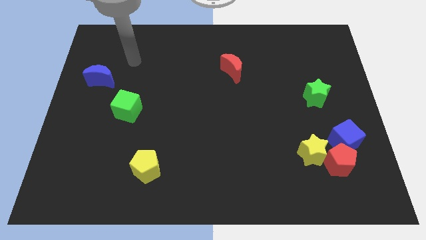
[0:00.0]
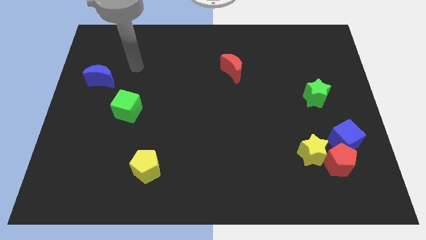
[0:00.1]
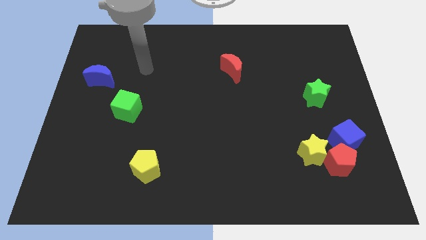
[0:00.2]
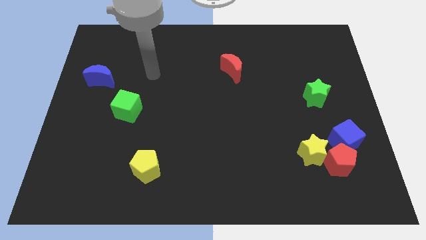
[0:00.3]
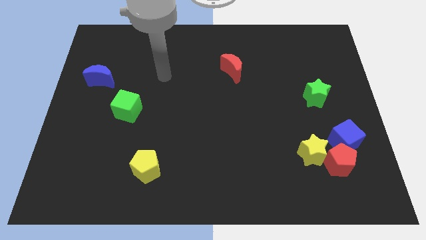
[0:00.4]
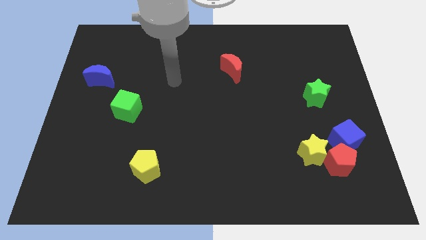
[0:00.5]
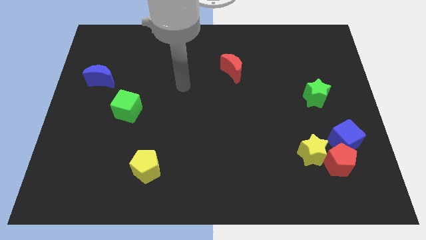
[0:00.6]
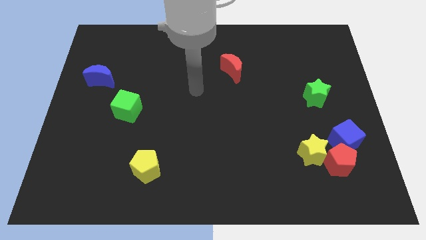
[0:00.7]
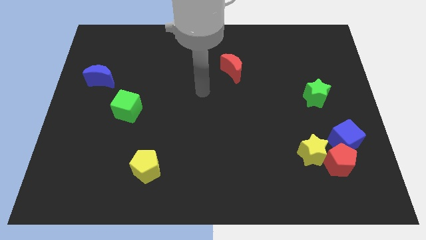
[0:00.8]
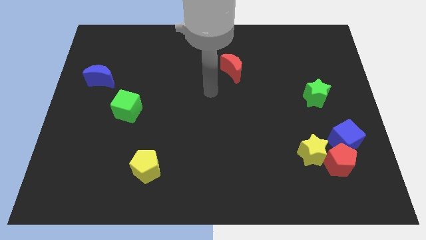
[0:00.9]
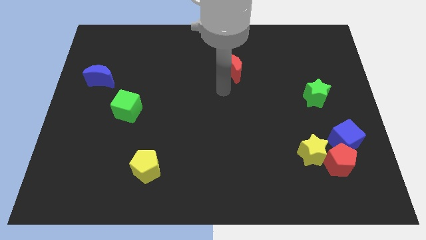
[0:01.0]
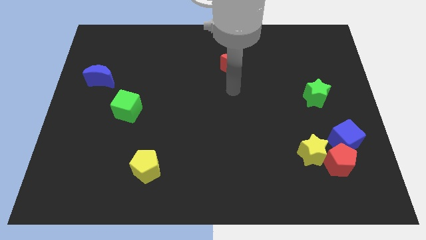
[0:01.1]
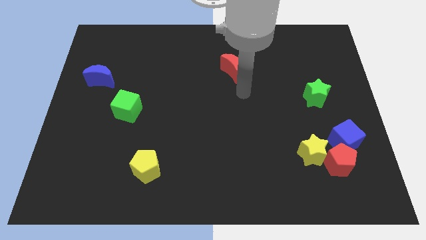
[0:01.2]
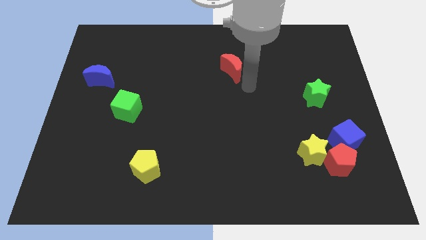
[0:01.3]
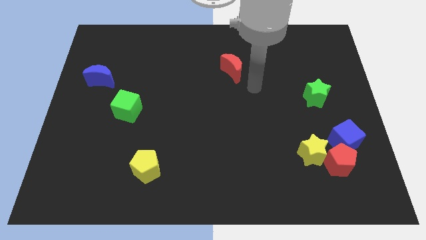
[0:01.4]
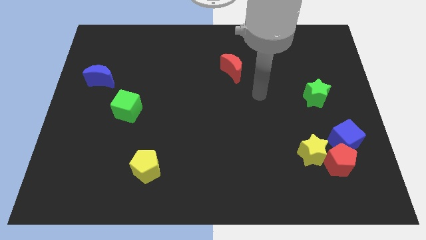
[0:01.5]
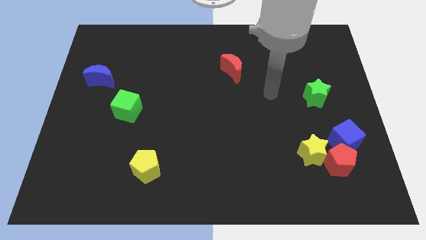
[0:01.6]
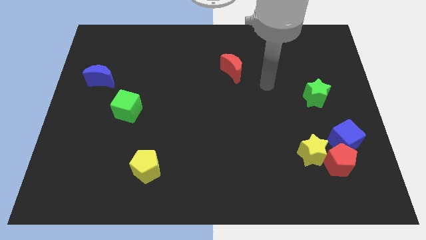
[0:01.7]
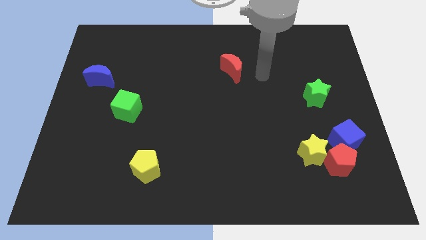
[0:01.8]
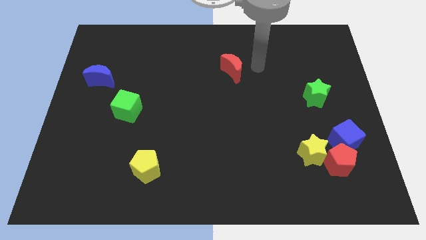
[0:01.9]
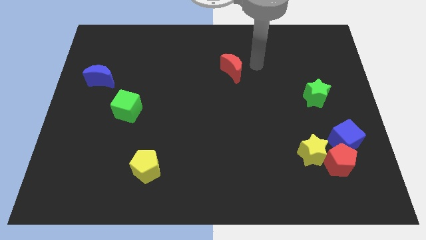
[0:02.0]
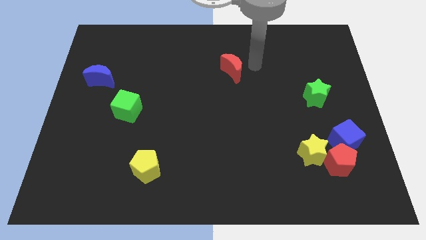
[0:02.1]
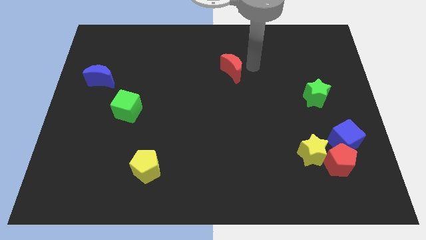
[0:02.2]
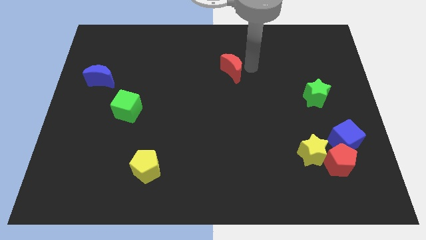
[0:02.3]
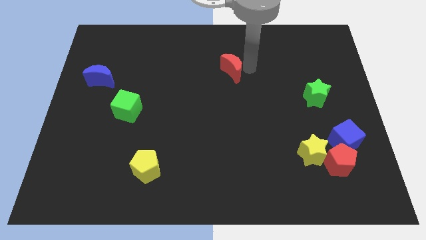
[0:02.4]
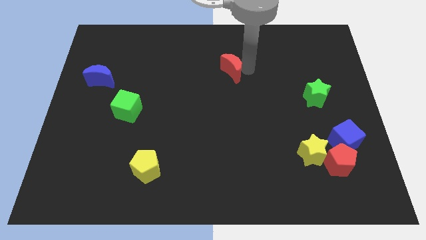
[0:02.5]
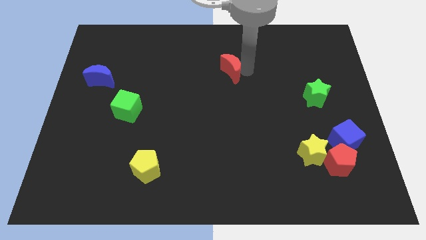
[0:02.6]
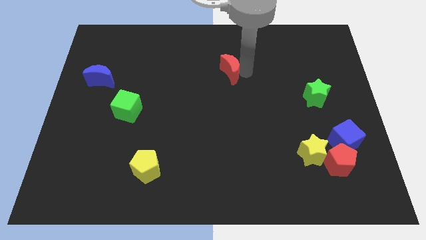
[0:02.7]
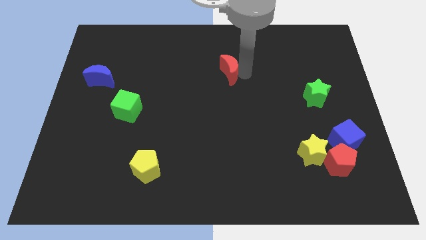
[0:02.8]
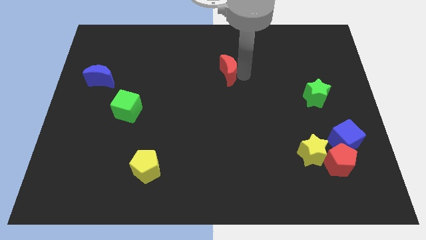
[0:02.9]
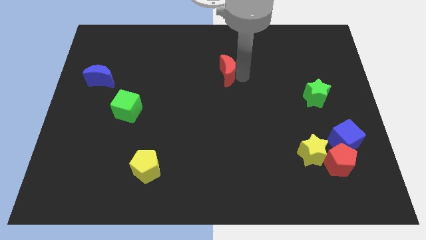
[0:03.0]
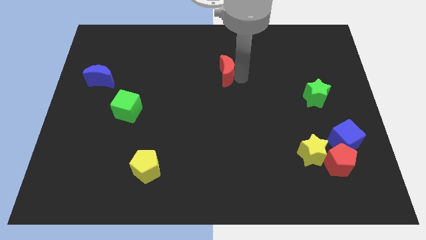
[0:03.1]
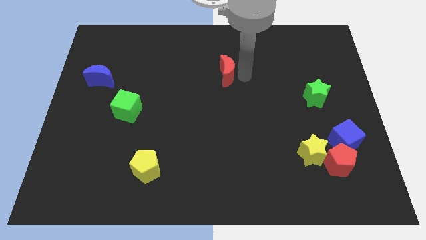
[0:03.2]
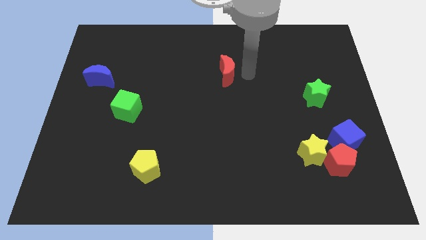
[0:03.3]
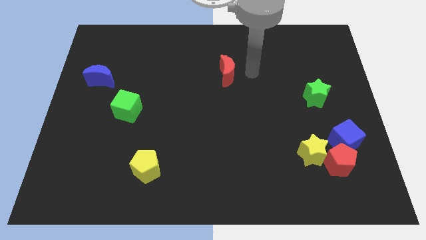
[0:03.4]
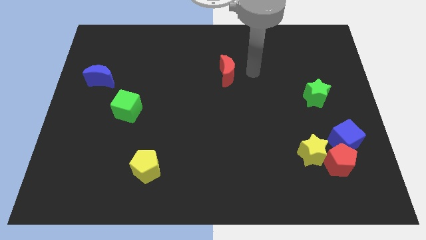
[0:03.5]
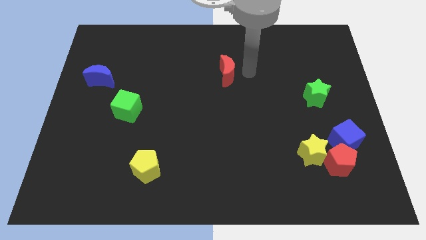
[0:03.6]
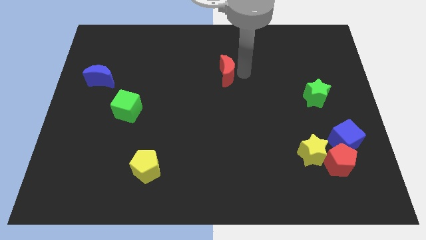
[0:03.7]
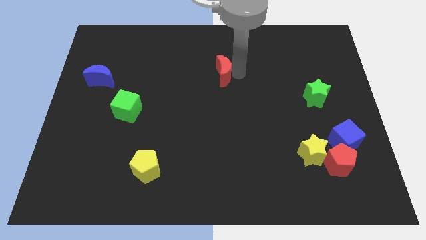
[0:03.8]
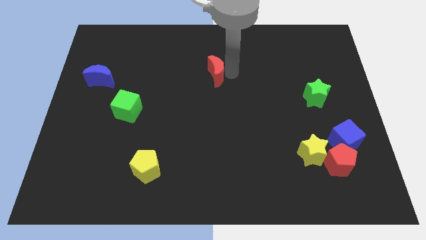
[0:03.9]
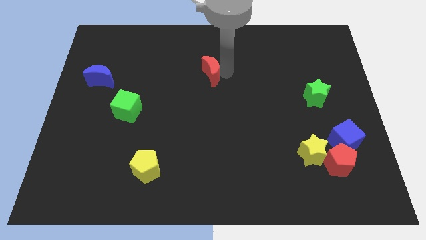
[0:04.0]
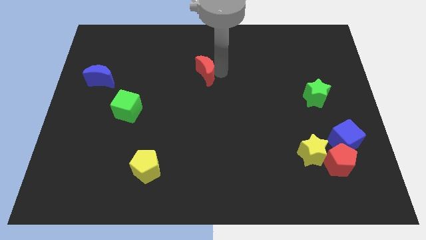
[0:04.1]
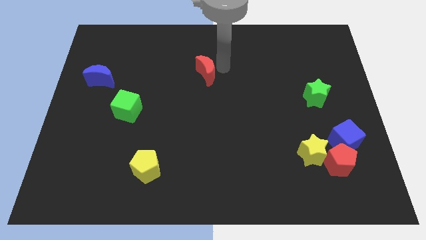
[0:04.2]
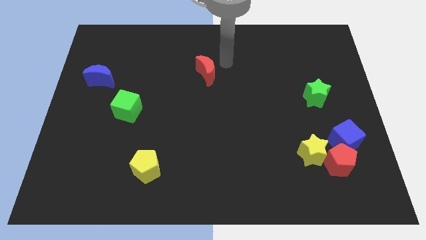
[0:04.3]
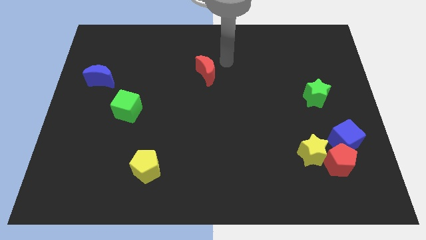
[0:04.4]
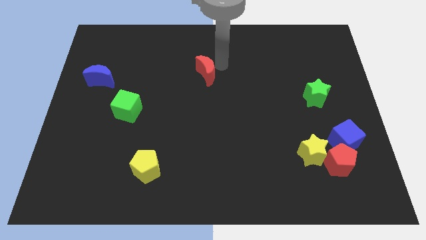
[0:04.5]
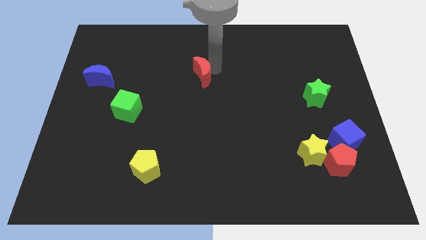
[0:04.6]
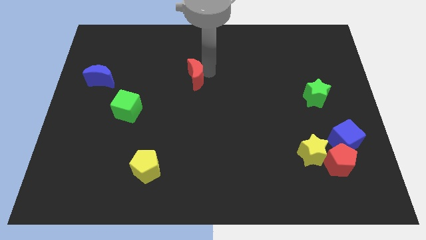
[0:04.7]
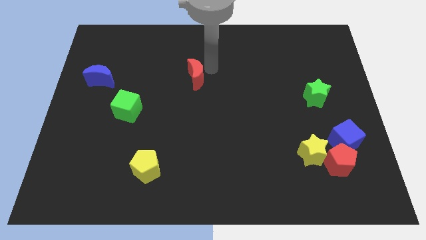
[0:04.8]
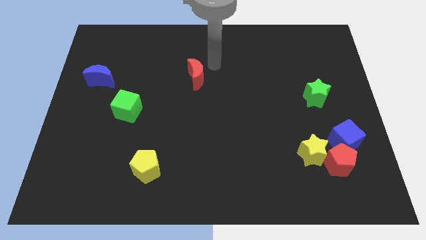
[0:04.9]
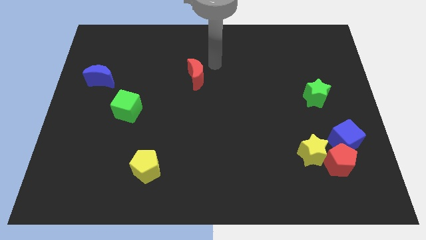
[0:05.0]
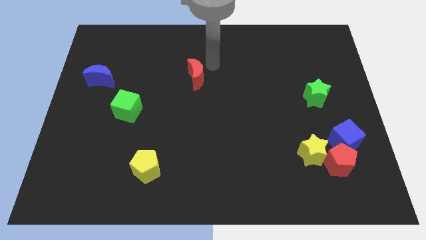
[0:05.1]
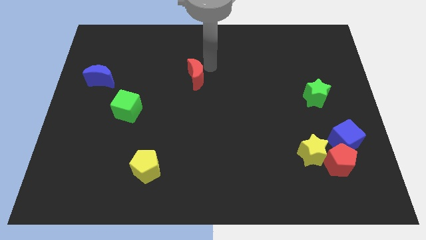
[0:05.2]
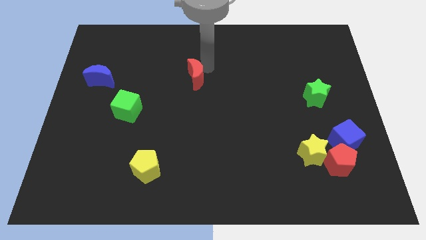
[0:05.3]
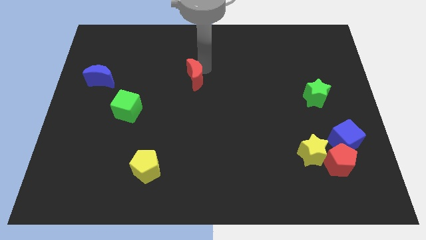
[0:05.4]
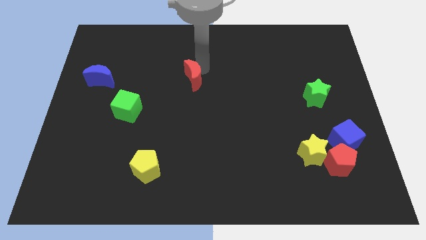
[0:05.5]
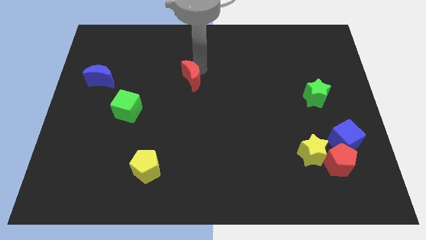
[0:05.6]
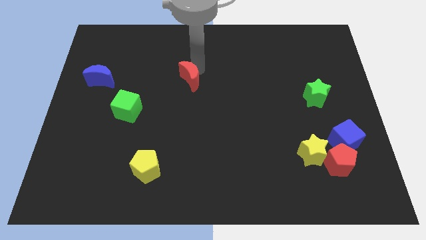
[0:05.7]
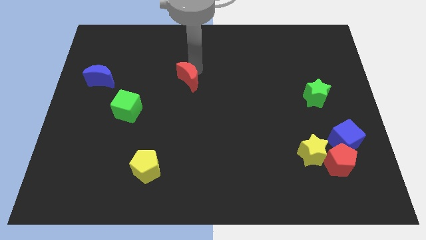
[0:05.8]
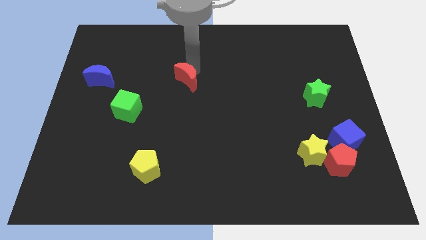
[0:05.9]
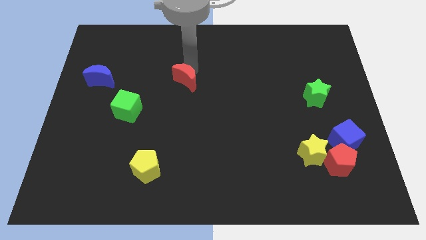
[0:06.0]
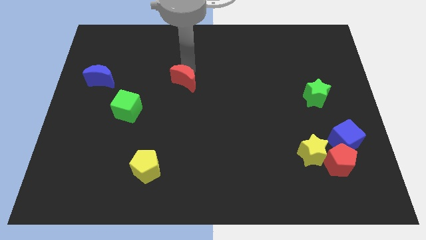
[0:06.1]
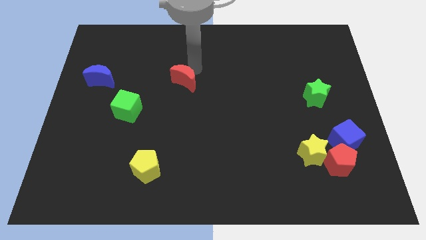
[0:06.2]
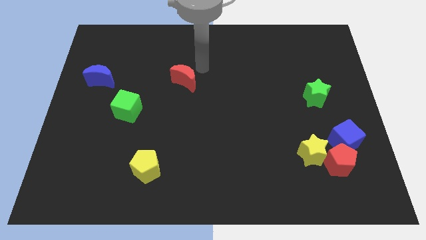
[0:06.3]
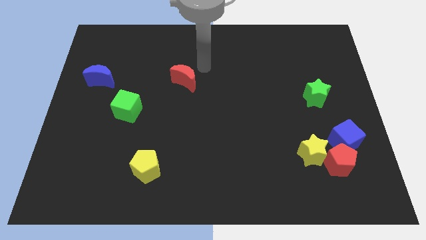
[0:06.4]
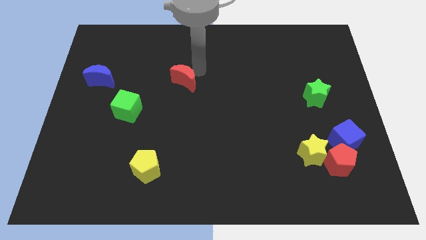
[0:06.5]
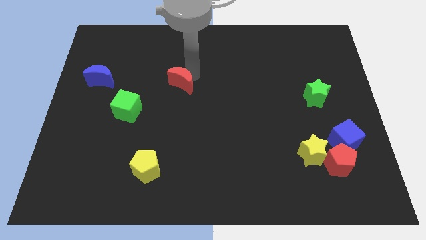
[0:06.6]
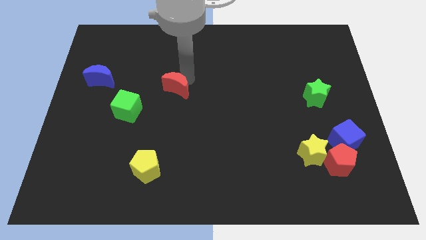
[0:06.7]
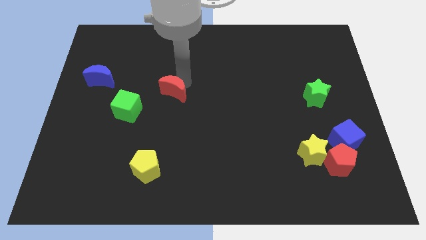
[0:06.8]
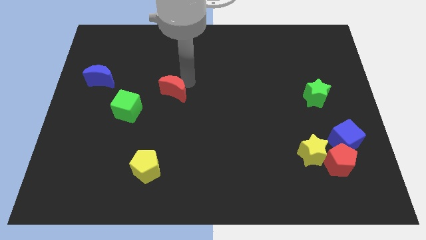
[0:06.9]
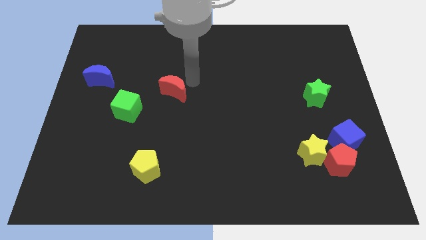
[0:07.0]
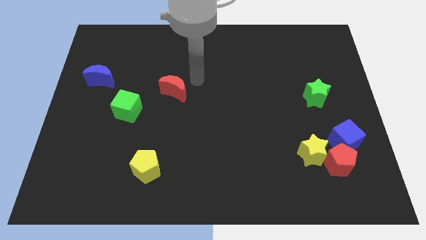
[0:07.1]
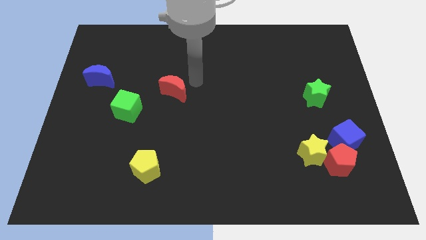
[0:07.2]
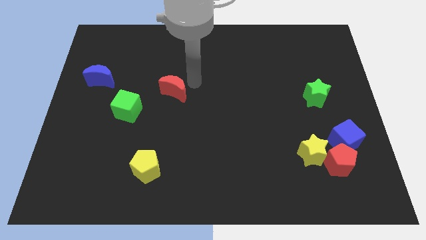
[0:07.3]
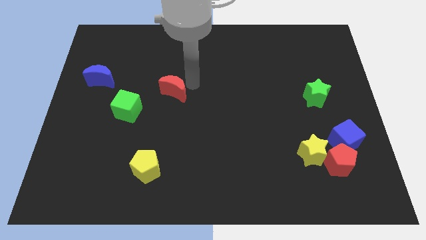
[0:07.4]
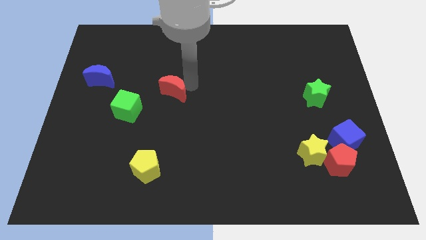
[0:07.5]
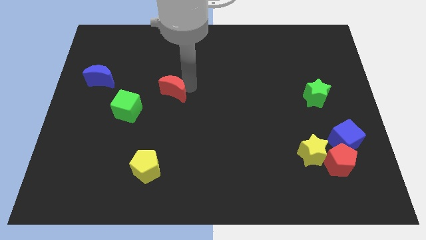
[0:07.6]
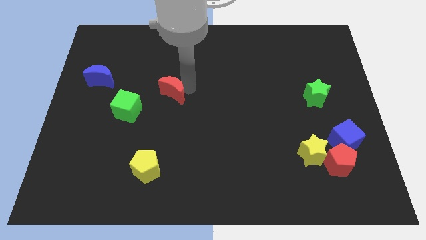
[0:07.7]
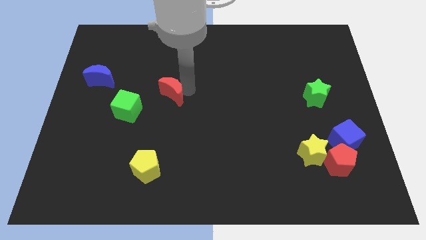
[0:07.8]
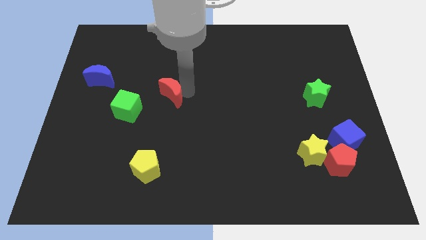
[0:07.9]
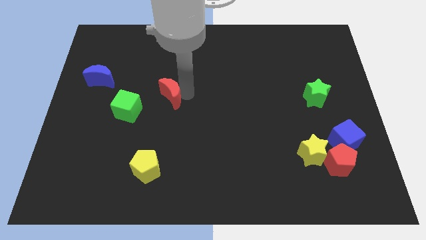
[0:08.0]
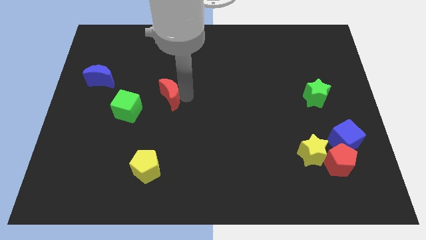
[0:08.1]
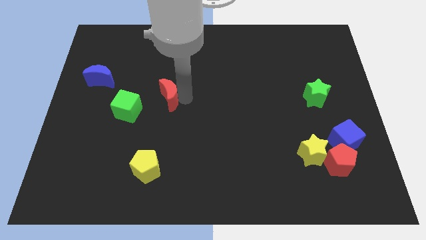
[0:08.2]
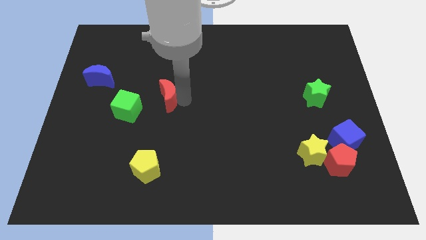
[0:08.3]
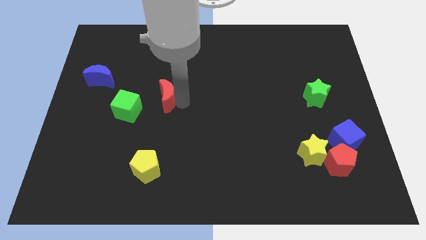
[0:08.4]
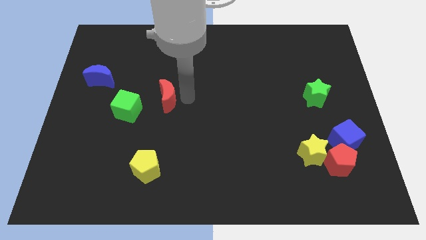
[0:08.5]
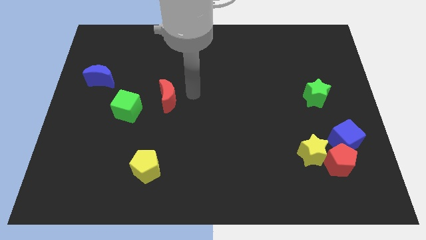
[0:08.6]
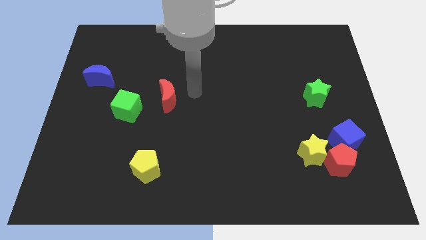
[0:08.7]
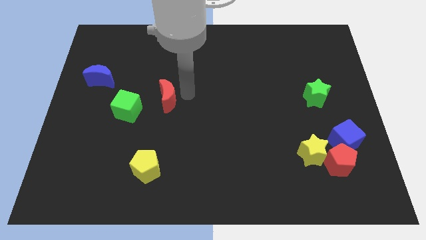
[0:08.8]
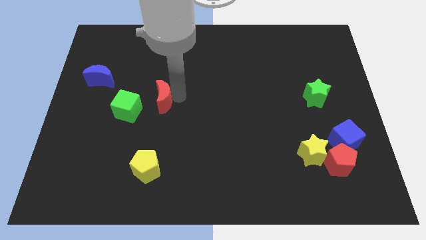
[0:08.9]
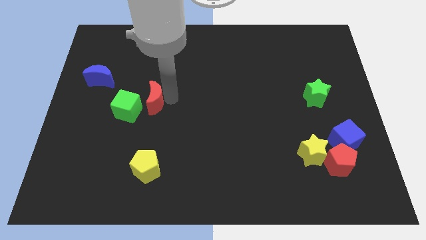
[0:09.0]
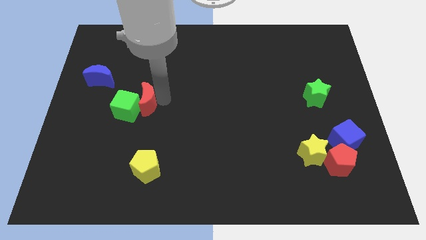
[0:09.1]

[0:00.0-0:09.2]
push the red moon close to the green cube
